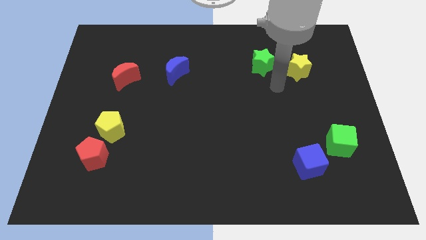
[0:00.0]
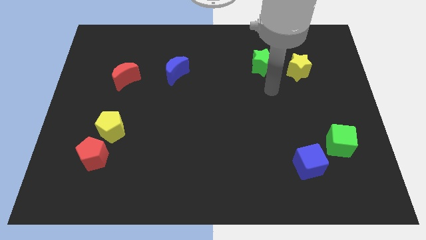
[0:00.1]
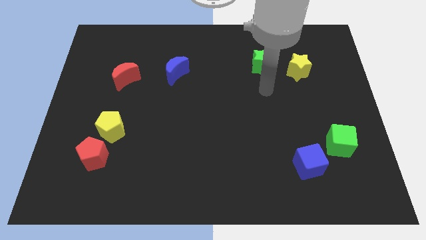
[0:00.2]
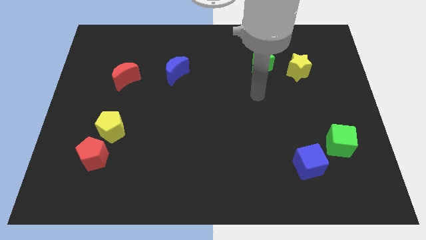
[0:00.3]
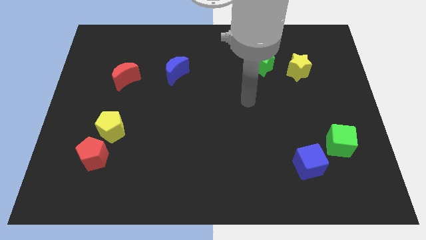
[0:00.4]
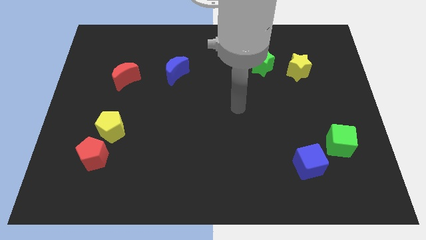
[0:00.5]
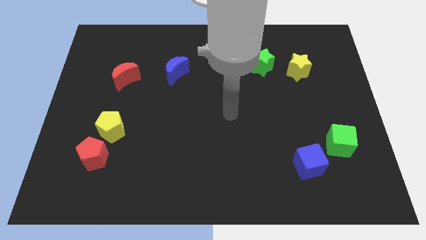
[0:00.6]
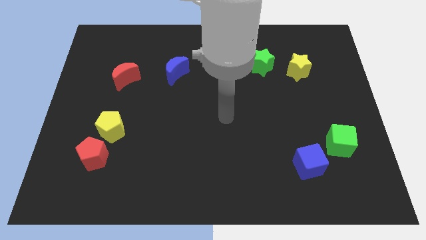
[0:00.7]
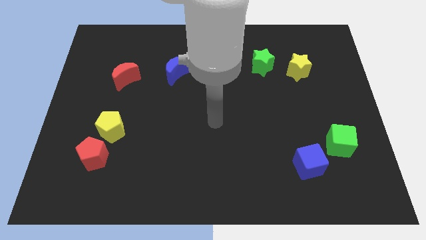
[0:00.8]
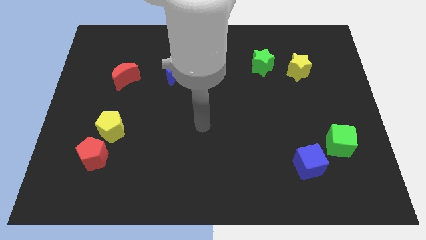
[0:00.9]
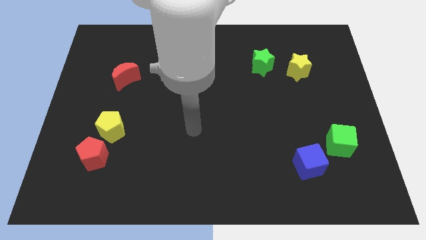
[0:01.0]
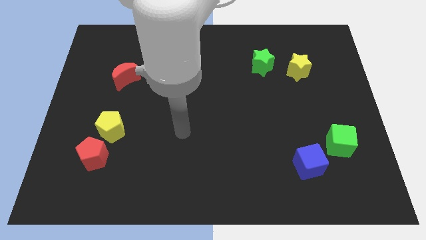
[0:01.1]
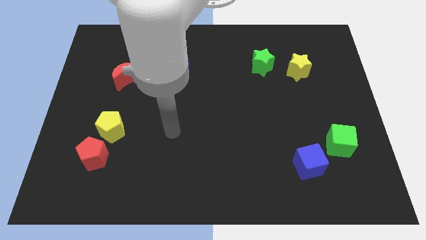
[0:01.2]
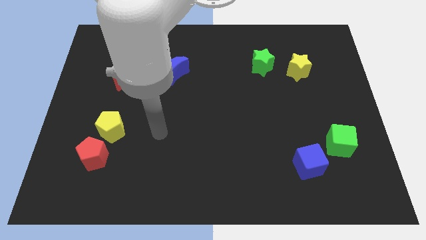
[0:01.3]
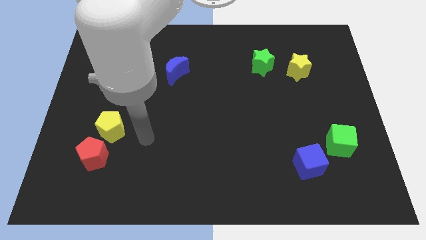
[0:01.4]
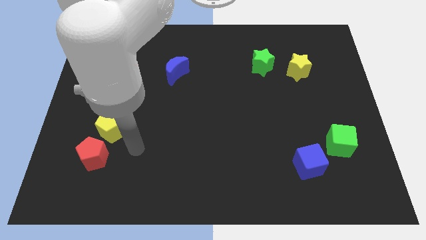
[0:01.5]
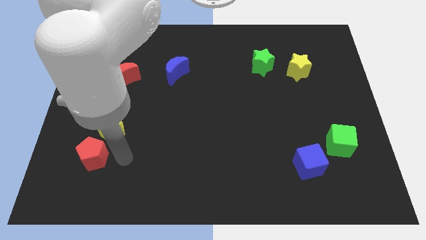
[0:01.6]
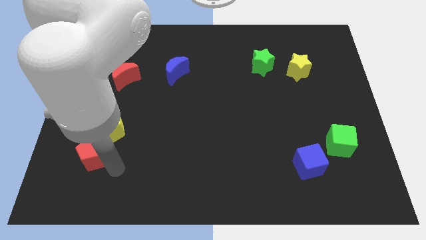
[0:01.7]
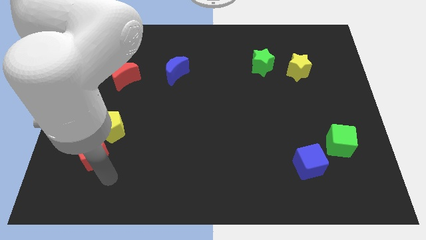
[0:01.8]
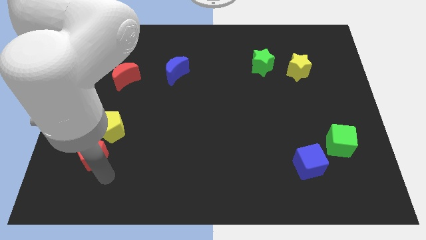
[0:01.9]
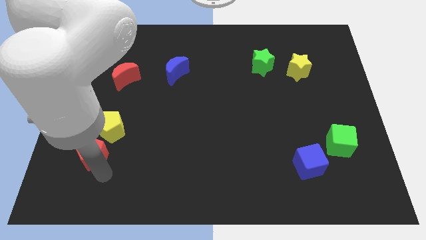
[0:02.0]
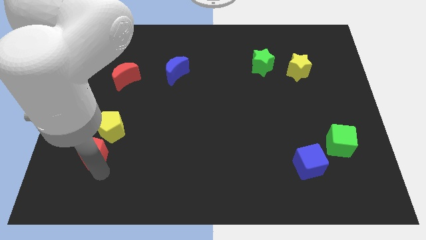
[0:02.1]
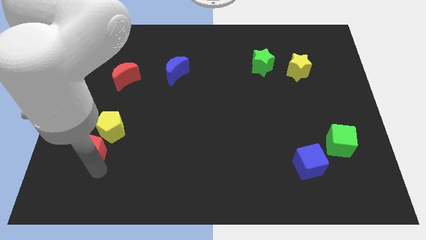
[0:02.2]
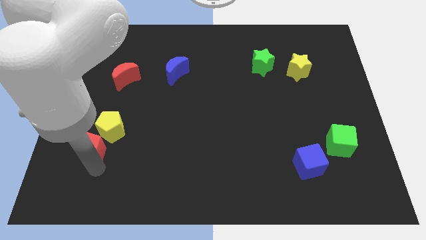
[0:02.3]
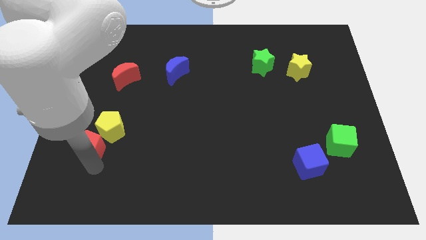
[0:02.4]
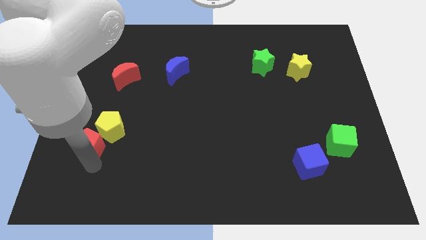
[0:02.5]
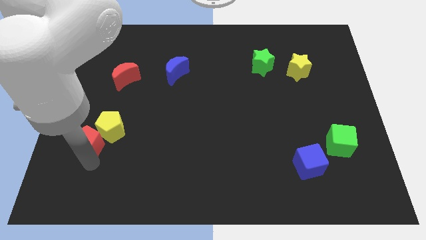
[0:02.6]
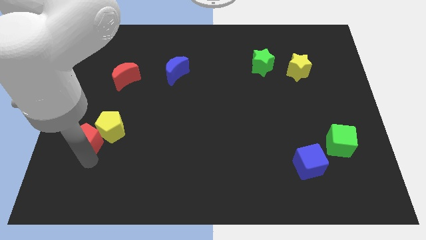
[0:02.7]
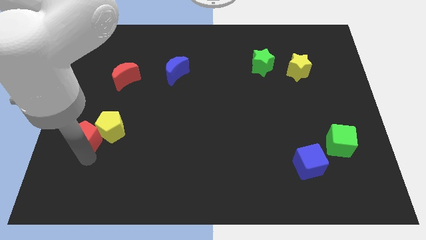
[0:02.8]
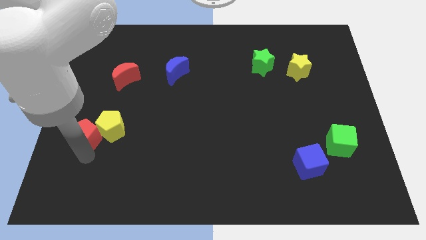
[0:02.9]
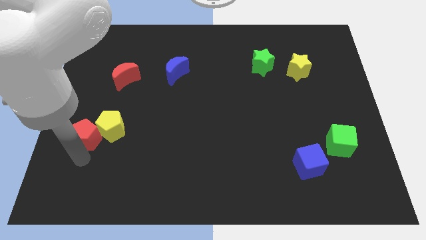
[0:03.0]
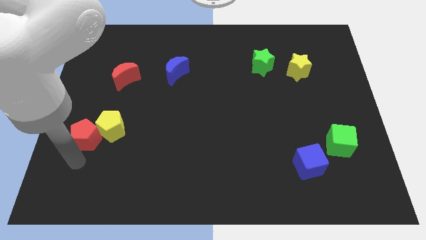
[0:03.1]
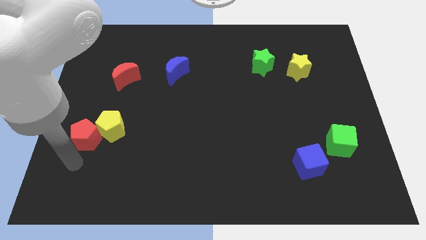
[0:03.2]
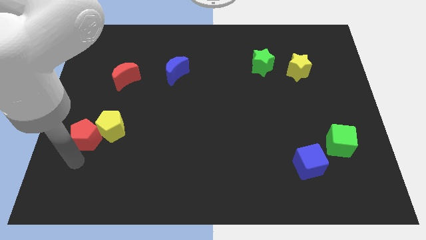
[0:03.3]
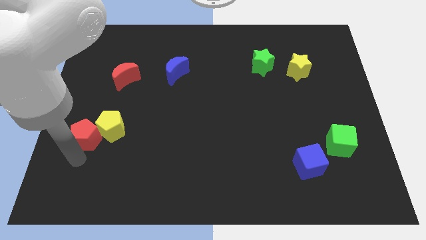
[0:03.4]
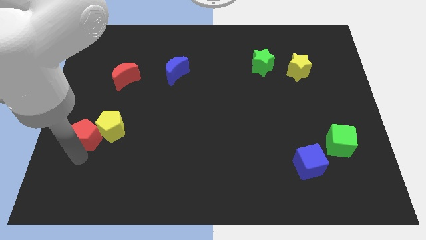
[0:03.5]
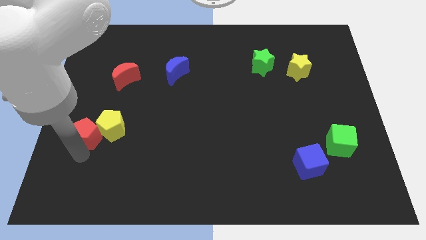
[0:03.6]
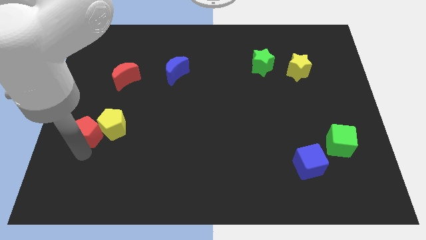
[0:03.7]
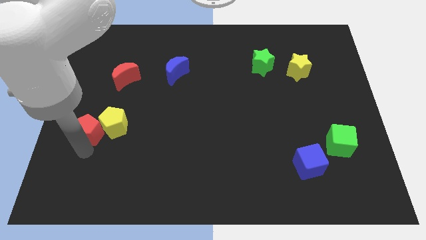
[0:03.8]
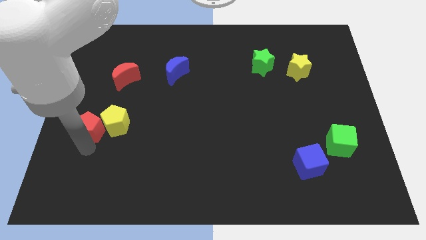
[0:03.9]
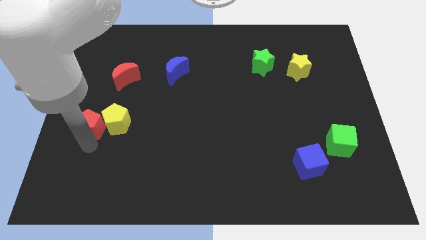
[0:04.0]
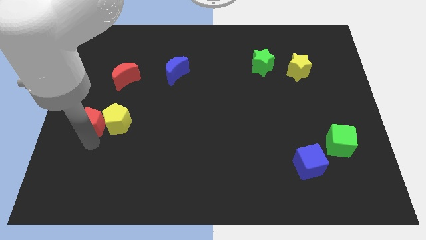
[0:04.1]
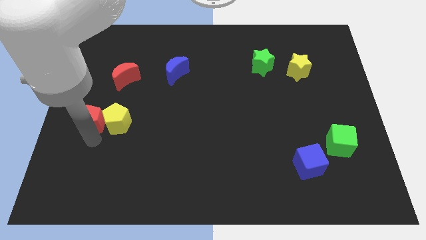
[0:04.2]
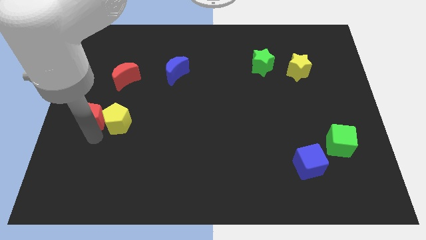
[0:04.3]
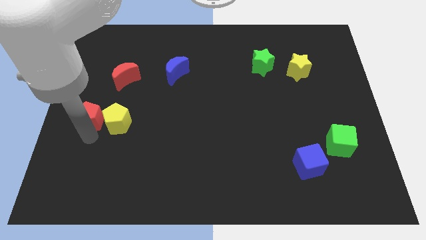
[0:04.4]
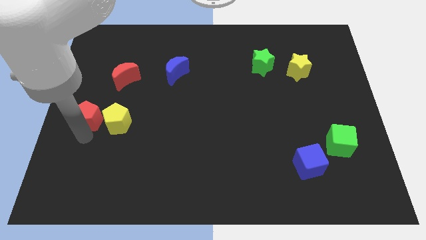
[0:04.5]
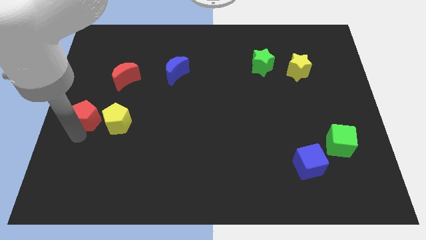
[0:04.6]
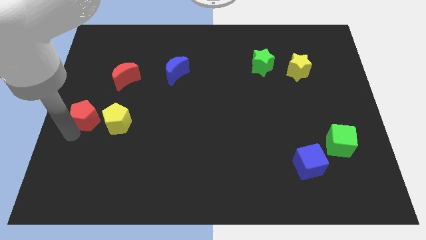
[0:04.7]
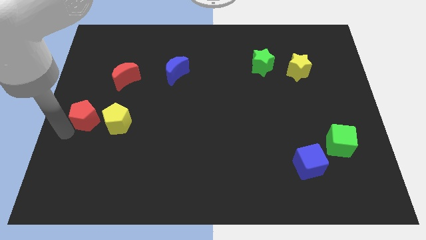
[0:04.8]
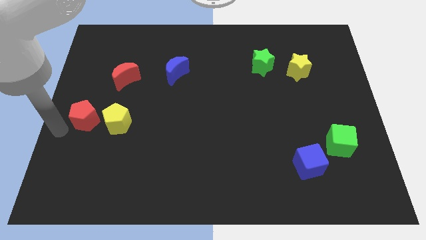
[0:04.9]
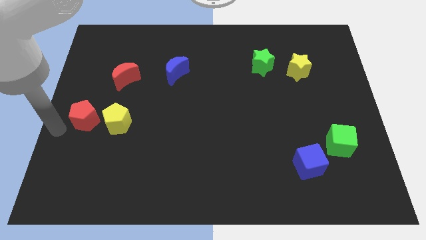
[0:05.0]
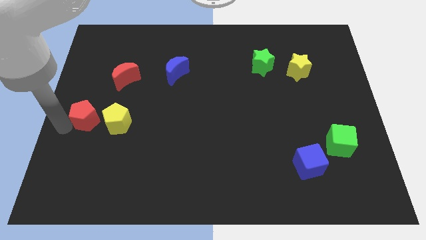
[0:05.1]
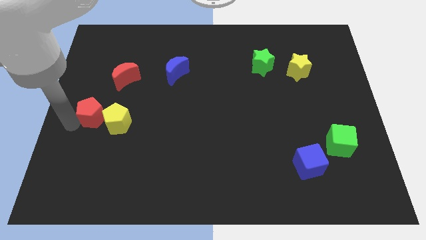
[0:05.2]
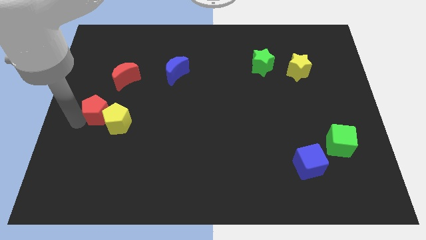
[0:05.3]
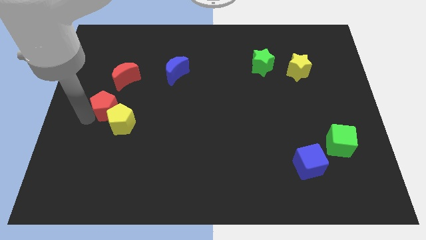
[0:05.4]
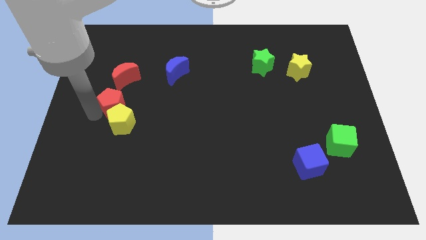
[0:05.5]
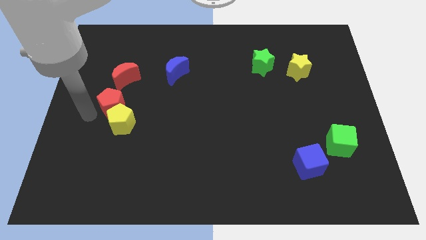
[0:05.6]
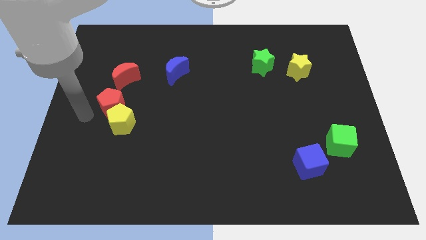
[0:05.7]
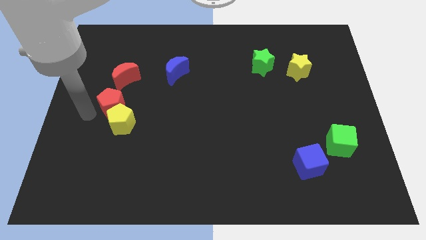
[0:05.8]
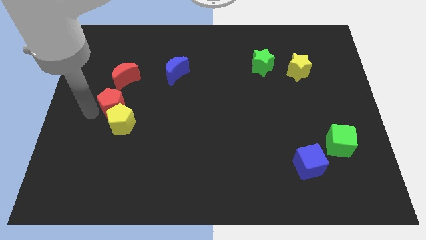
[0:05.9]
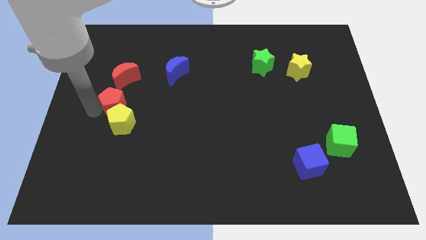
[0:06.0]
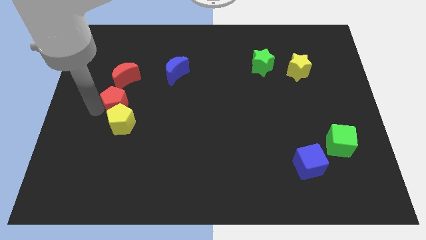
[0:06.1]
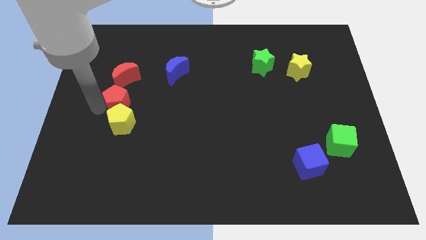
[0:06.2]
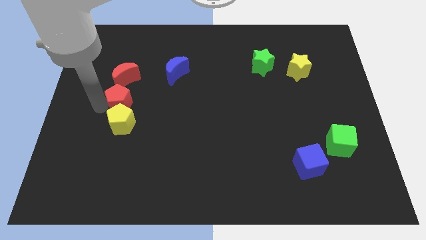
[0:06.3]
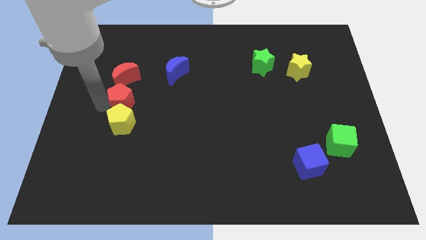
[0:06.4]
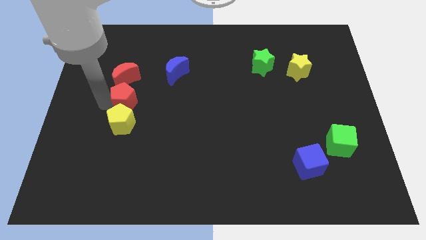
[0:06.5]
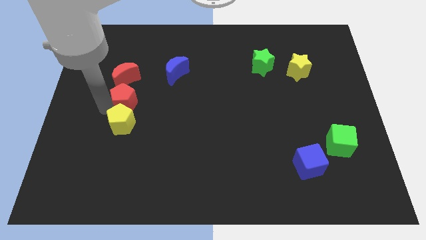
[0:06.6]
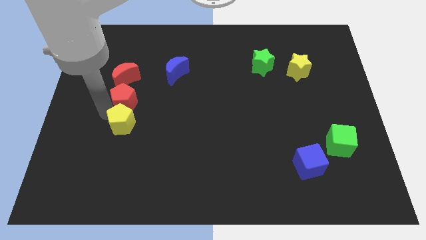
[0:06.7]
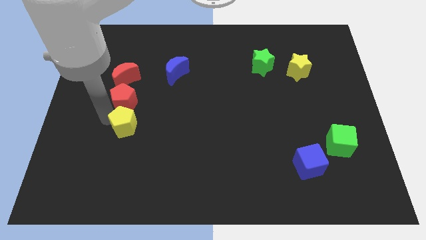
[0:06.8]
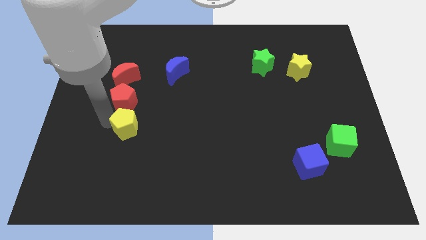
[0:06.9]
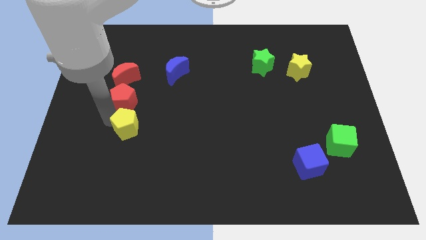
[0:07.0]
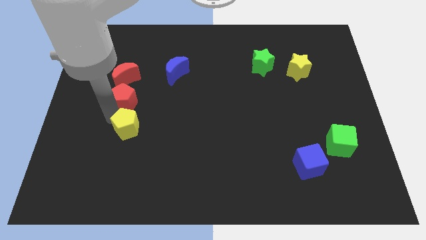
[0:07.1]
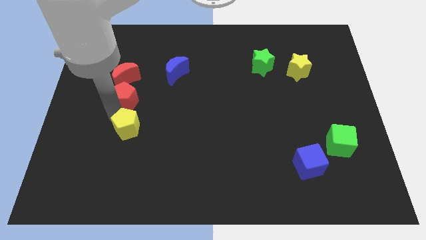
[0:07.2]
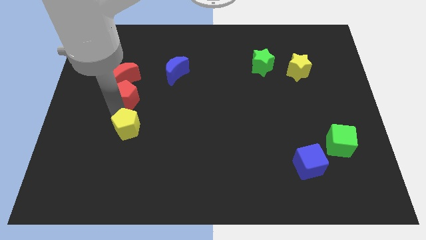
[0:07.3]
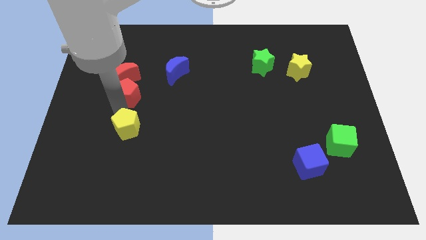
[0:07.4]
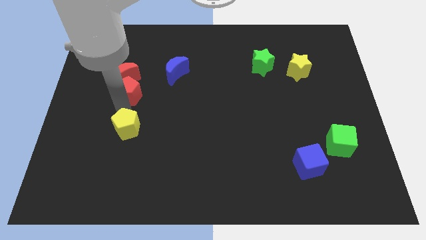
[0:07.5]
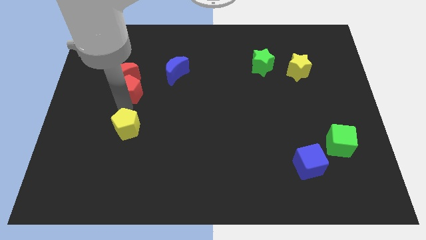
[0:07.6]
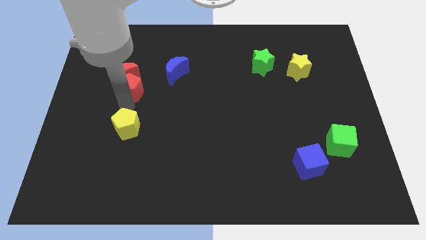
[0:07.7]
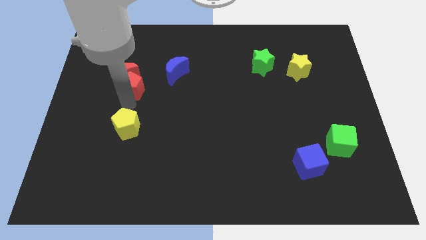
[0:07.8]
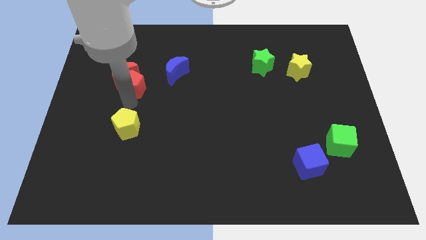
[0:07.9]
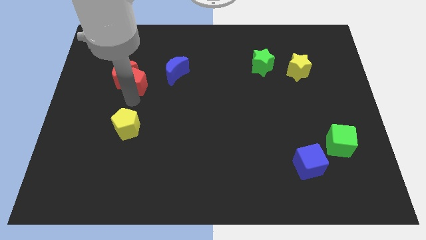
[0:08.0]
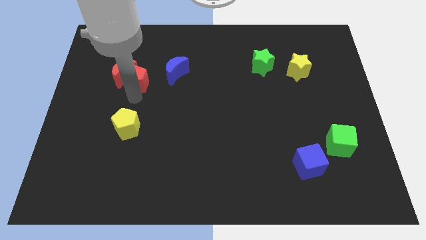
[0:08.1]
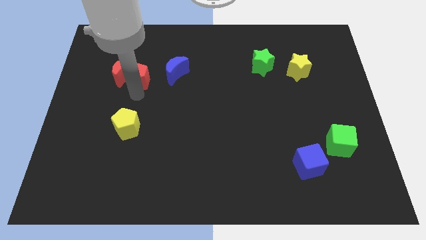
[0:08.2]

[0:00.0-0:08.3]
move the red pentagon diagonally up and to the right of the red moon
